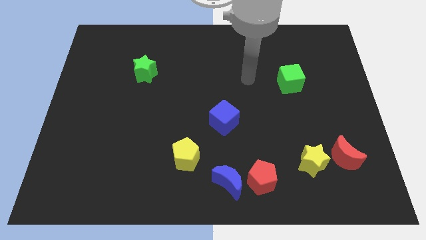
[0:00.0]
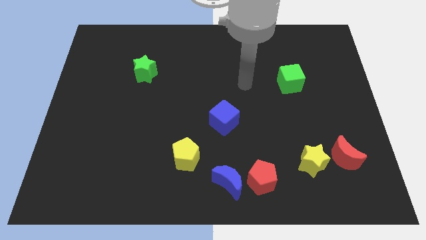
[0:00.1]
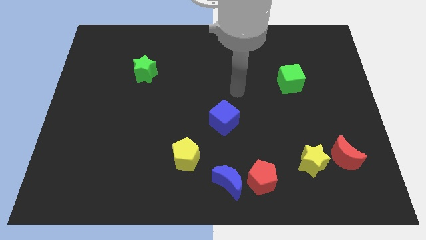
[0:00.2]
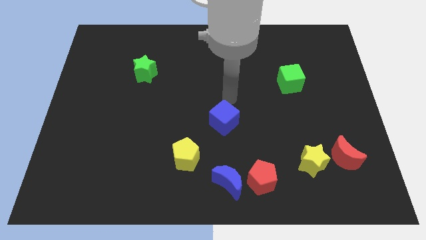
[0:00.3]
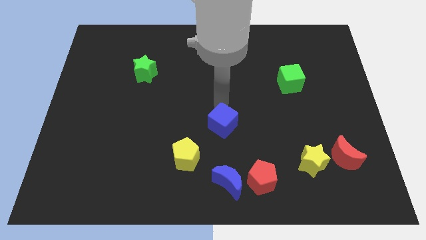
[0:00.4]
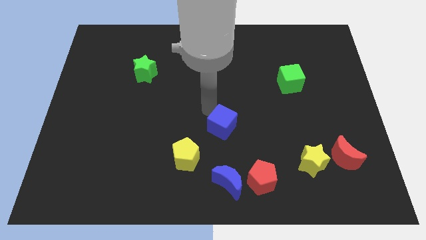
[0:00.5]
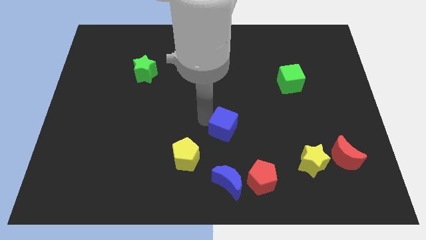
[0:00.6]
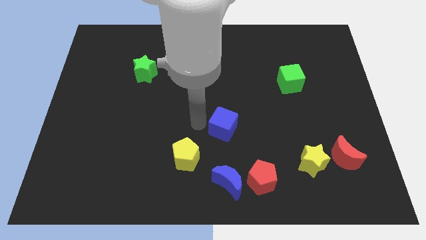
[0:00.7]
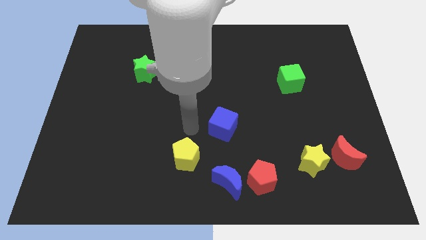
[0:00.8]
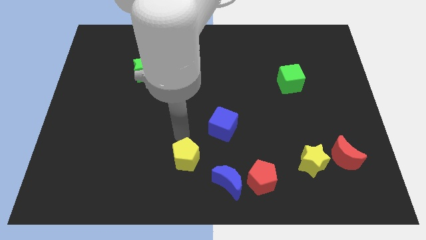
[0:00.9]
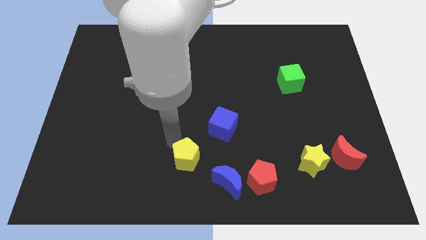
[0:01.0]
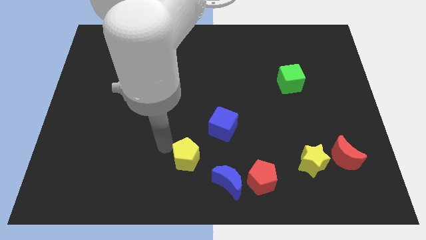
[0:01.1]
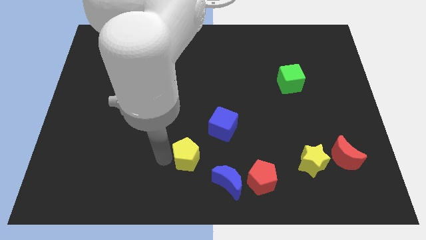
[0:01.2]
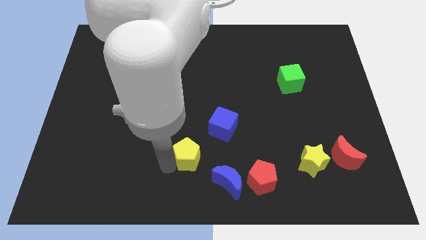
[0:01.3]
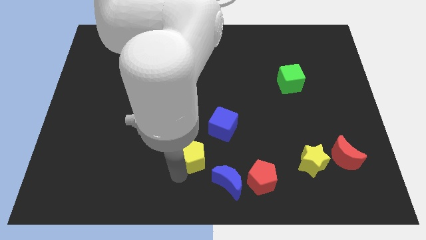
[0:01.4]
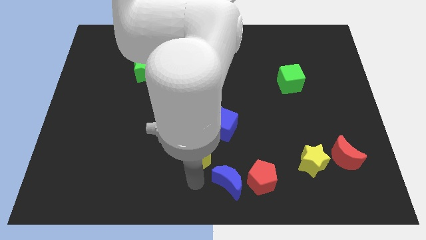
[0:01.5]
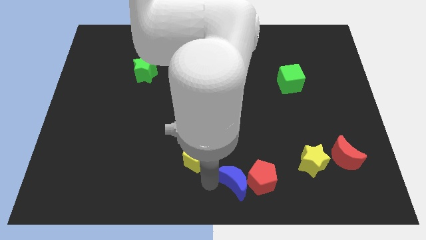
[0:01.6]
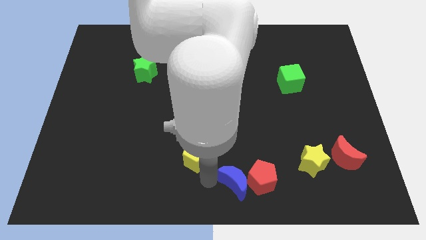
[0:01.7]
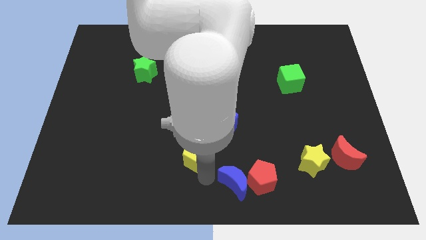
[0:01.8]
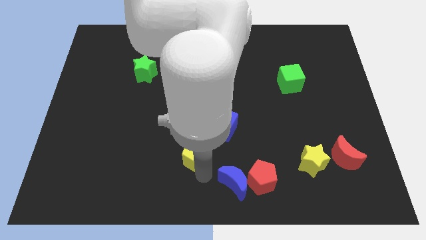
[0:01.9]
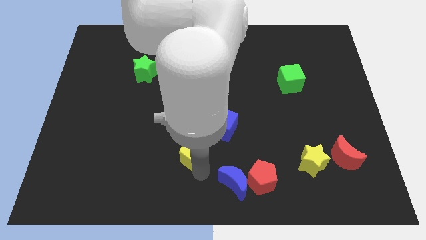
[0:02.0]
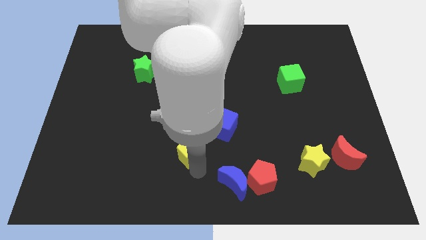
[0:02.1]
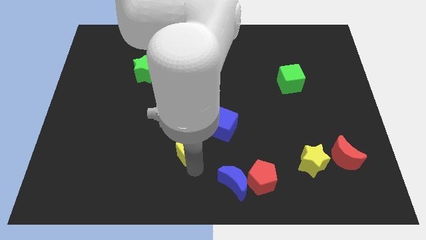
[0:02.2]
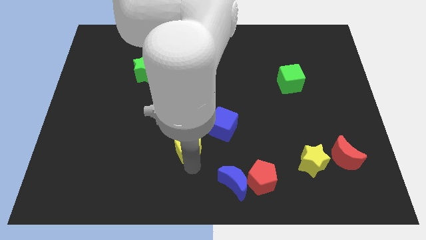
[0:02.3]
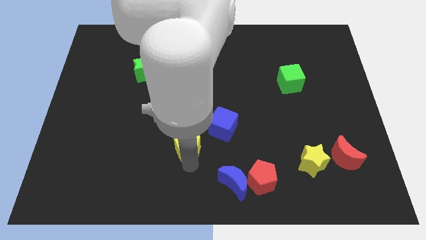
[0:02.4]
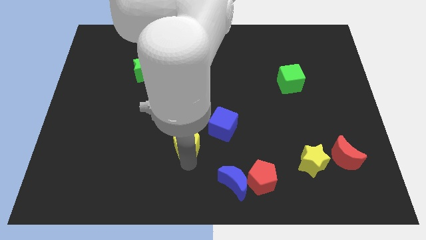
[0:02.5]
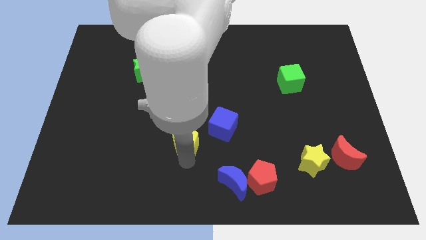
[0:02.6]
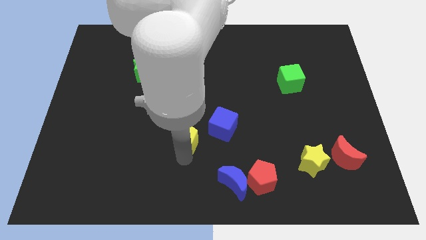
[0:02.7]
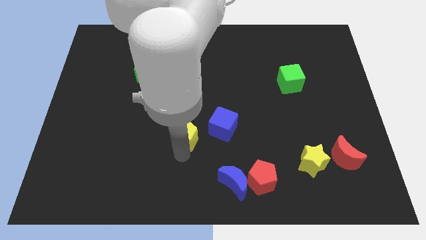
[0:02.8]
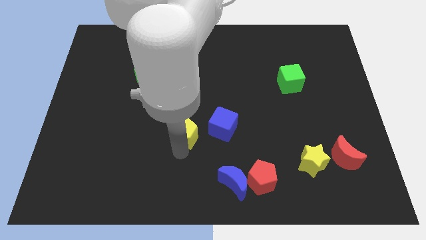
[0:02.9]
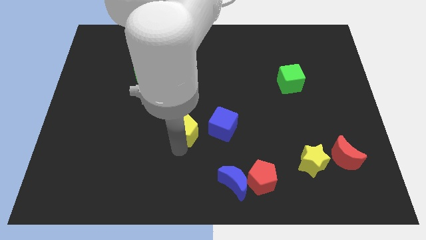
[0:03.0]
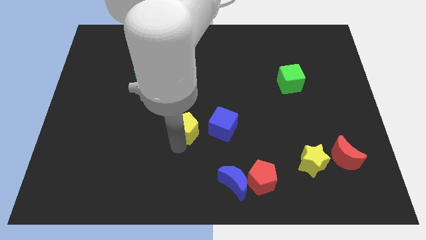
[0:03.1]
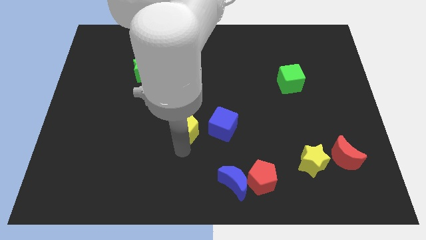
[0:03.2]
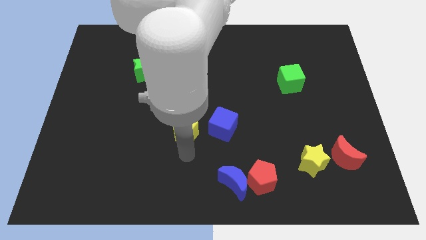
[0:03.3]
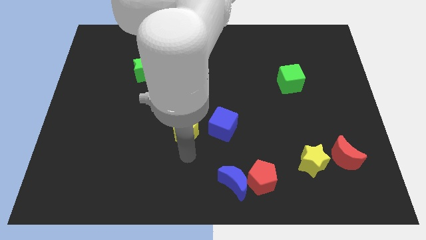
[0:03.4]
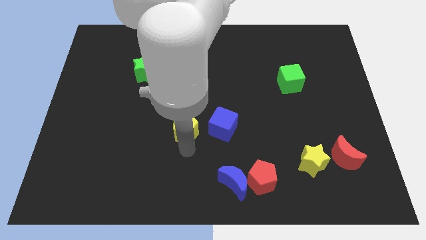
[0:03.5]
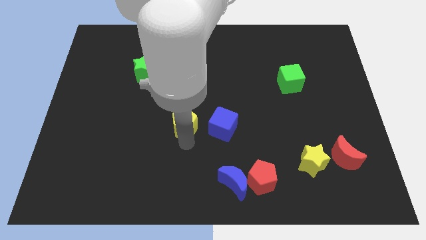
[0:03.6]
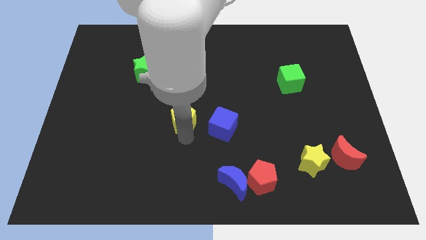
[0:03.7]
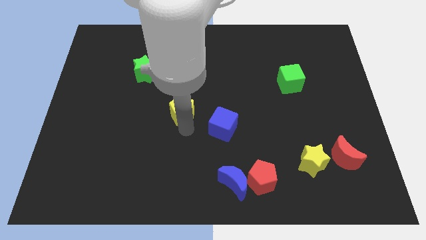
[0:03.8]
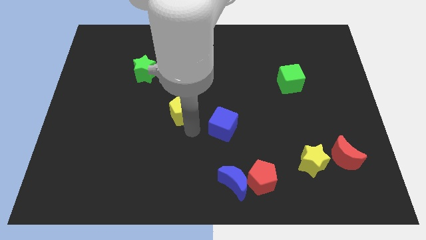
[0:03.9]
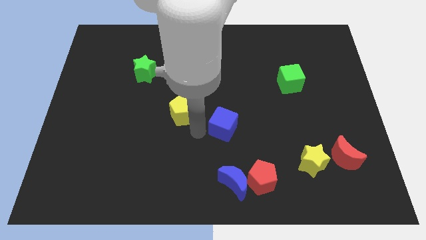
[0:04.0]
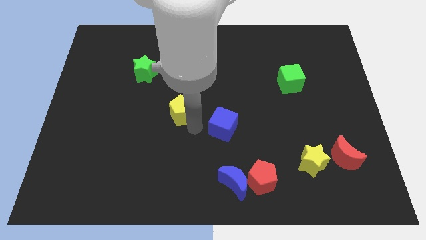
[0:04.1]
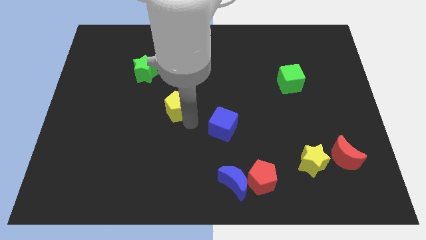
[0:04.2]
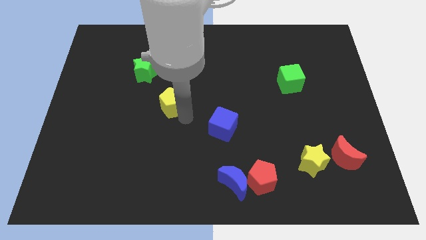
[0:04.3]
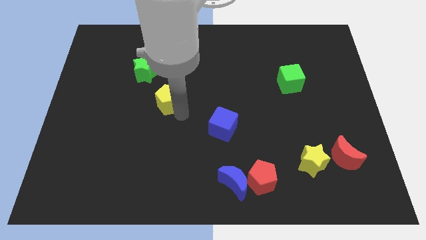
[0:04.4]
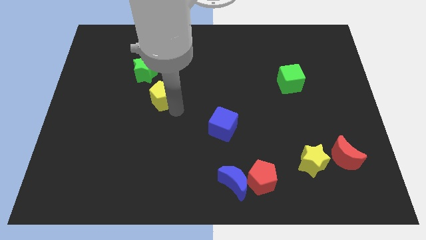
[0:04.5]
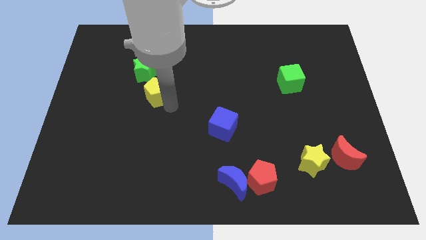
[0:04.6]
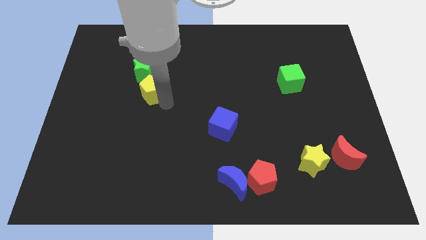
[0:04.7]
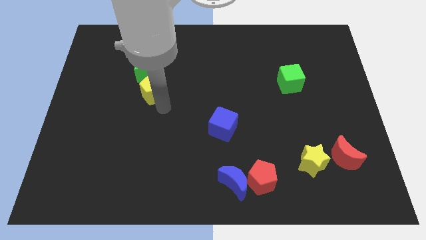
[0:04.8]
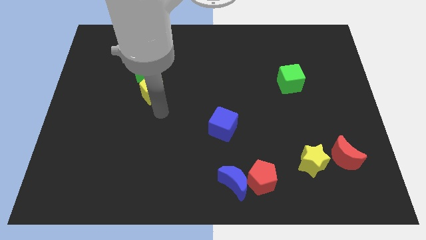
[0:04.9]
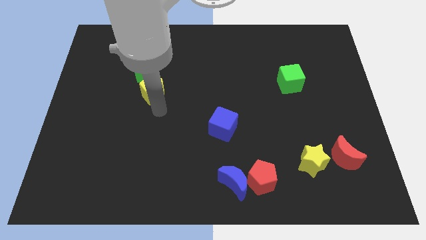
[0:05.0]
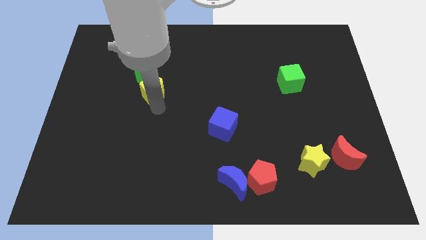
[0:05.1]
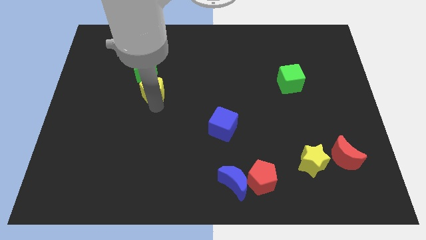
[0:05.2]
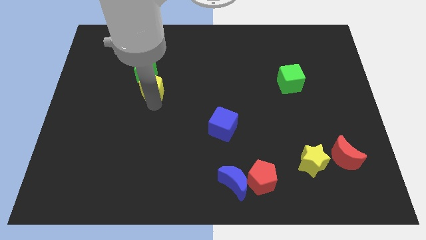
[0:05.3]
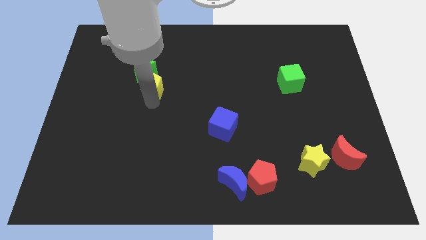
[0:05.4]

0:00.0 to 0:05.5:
put the yellow pentagon to the green star

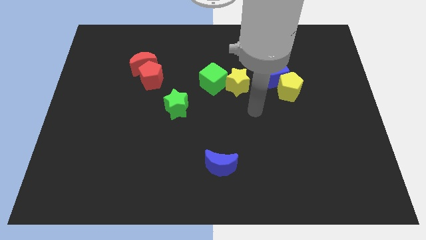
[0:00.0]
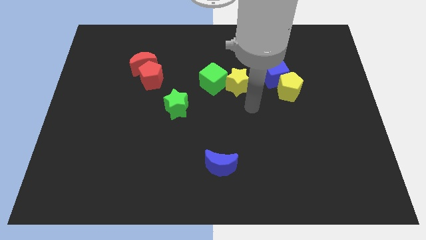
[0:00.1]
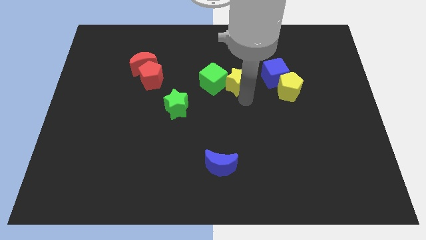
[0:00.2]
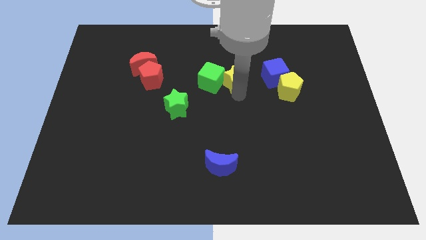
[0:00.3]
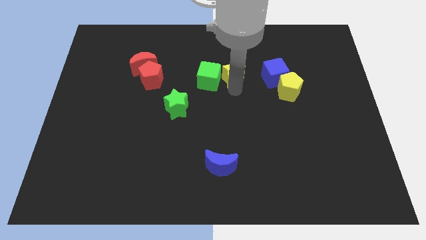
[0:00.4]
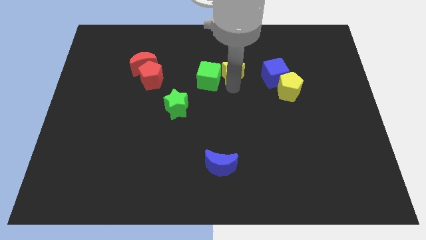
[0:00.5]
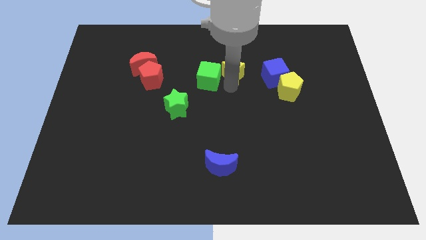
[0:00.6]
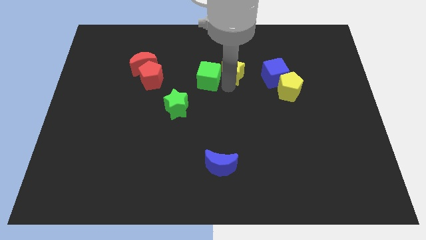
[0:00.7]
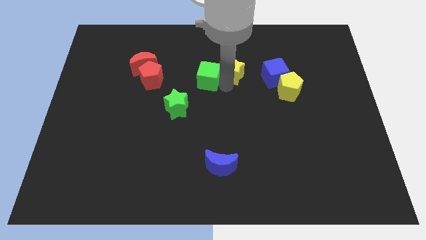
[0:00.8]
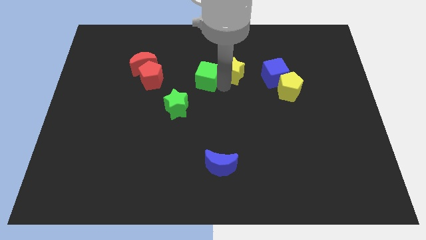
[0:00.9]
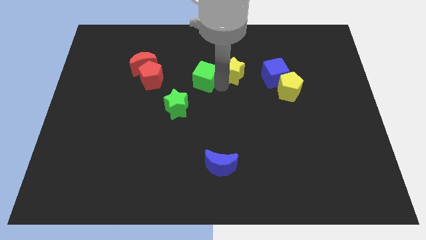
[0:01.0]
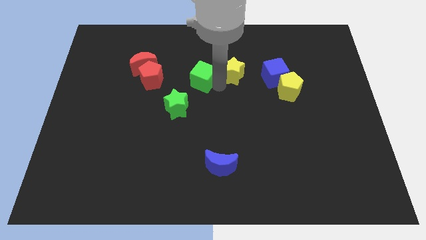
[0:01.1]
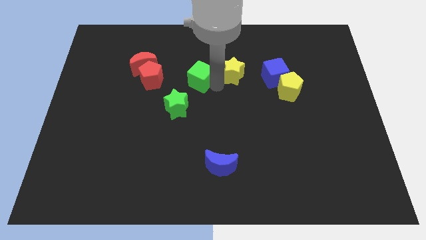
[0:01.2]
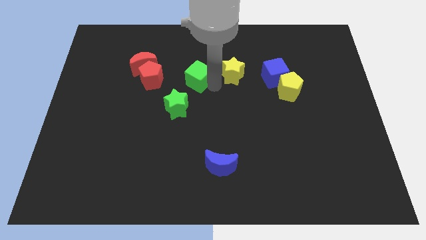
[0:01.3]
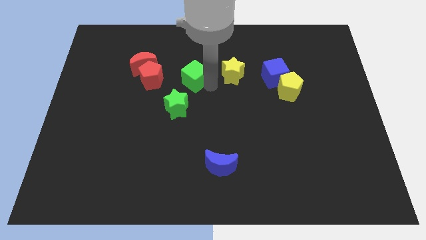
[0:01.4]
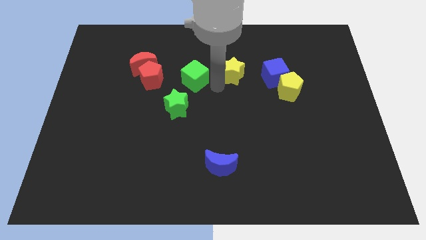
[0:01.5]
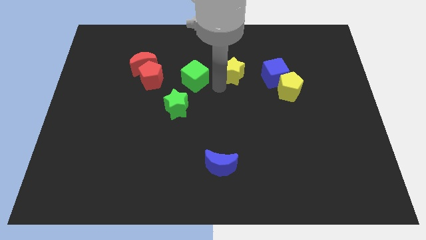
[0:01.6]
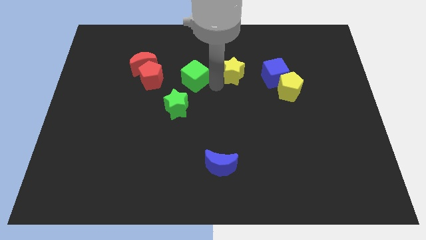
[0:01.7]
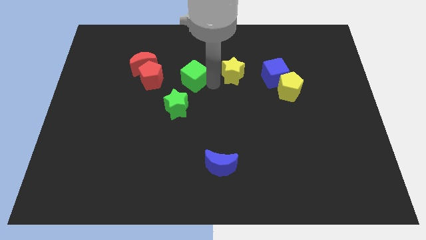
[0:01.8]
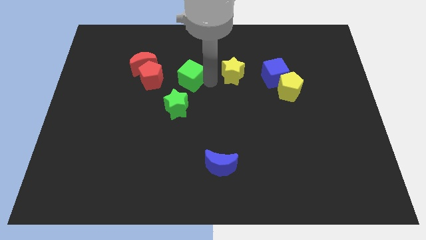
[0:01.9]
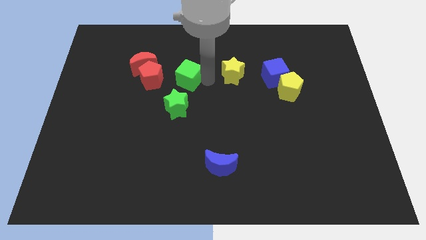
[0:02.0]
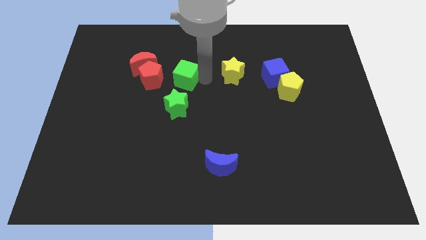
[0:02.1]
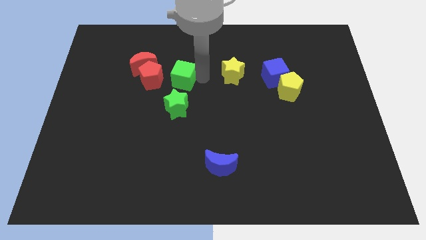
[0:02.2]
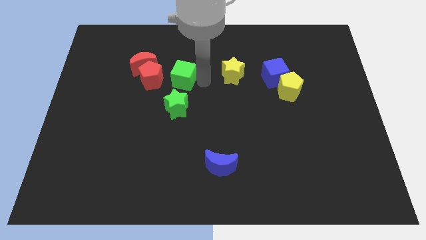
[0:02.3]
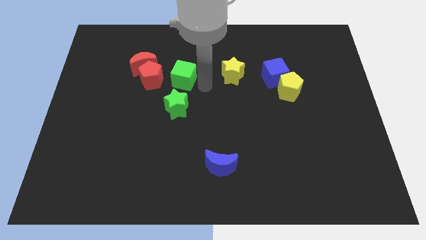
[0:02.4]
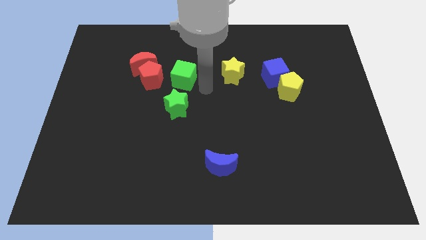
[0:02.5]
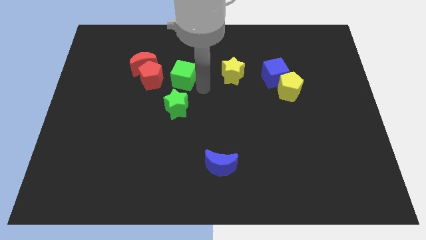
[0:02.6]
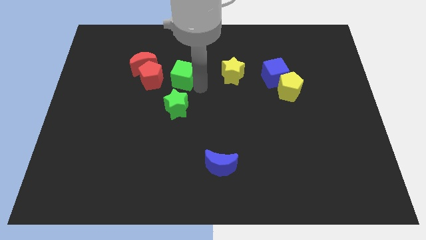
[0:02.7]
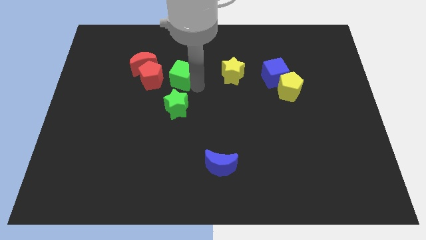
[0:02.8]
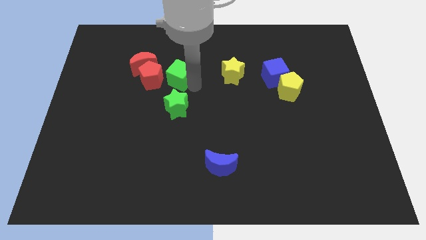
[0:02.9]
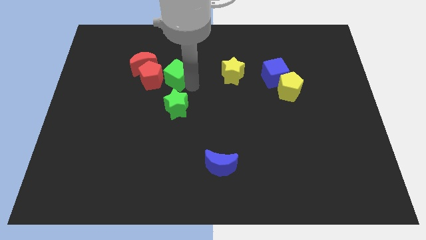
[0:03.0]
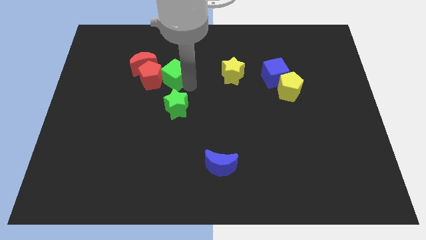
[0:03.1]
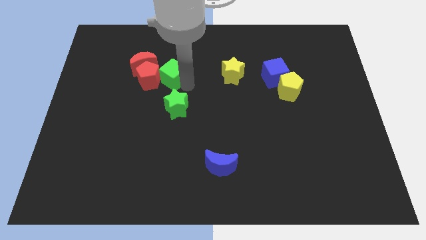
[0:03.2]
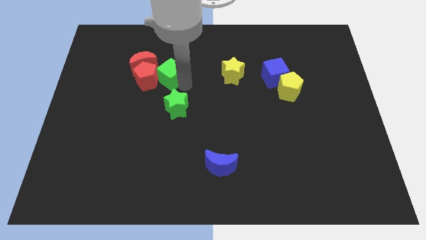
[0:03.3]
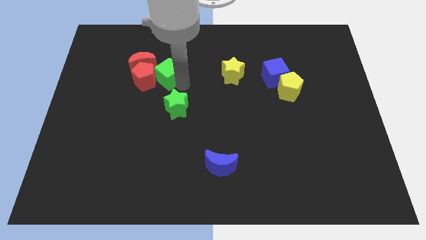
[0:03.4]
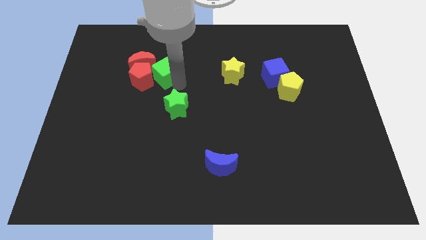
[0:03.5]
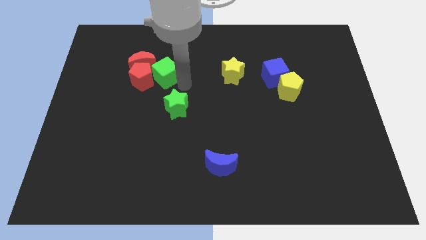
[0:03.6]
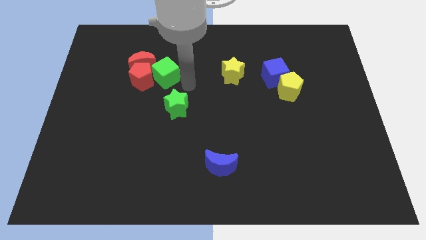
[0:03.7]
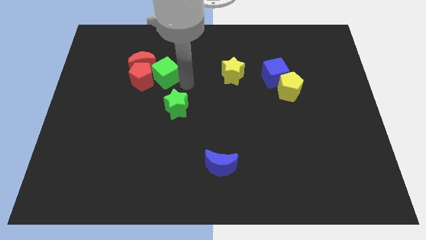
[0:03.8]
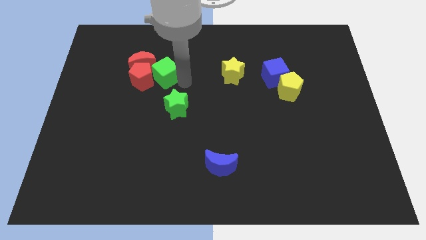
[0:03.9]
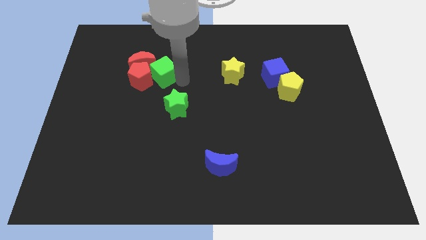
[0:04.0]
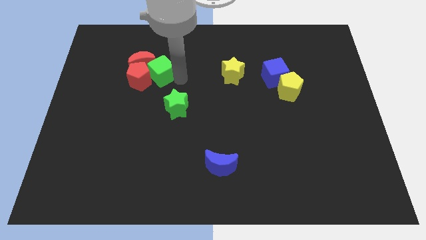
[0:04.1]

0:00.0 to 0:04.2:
slide the green cube towards the red moon
